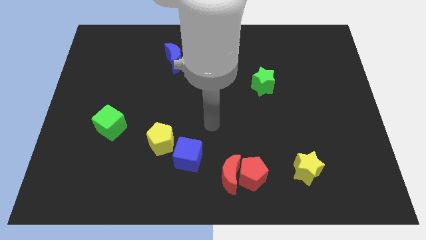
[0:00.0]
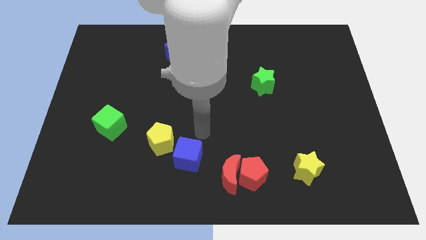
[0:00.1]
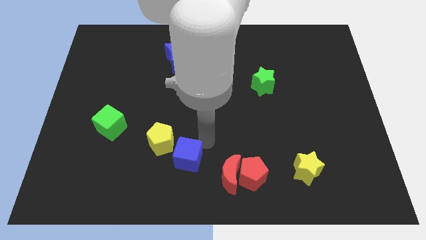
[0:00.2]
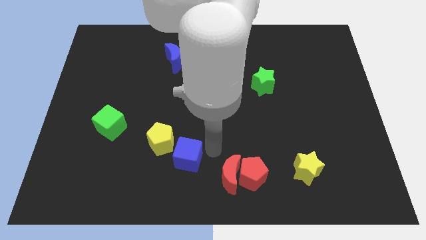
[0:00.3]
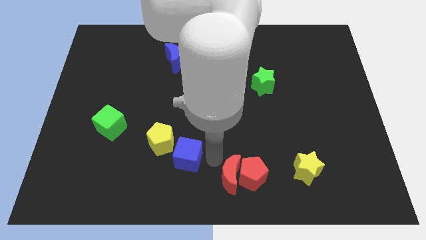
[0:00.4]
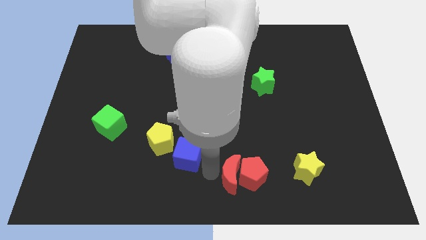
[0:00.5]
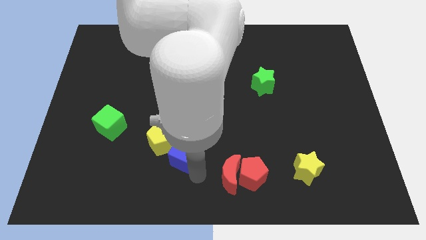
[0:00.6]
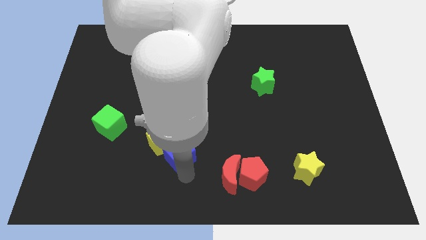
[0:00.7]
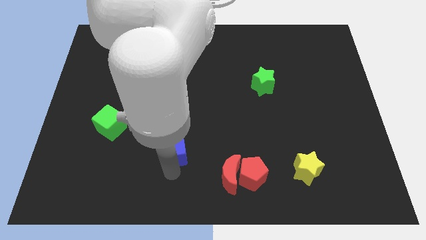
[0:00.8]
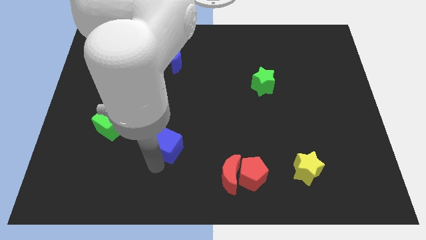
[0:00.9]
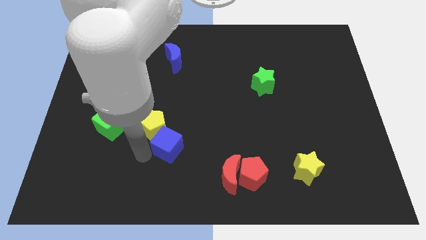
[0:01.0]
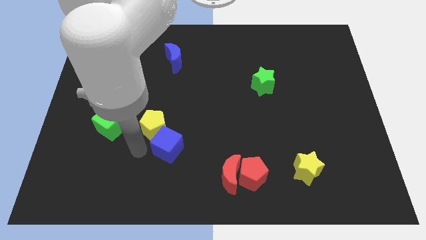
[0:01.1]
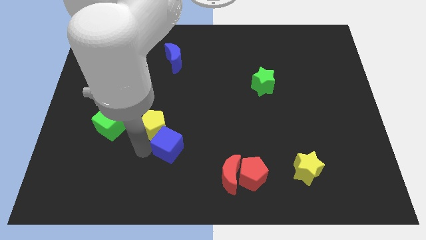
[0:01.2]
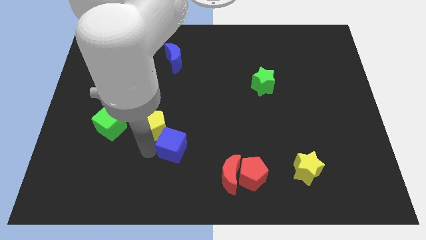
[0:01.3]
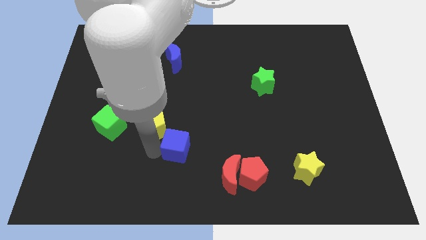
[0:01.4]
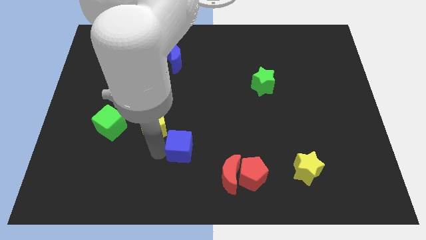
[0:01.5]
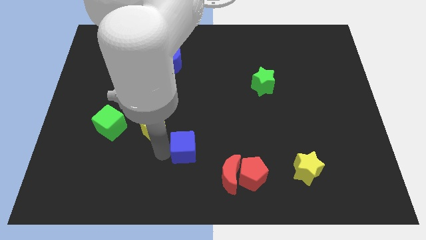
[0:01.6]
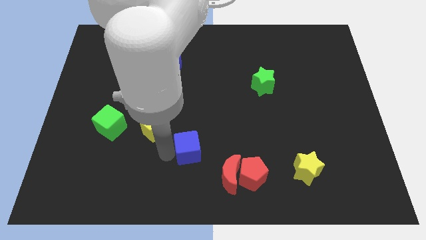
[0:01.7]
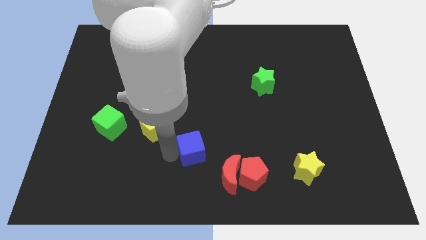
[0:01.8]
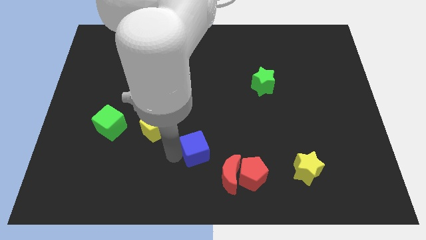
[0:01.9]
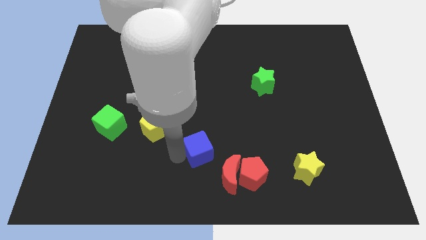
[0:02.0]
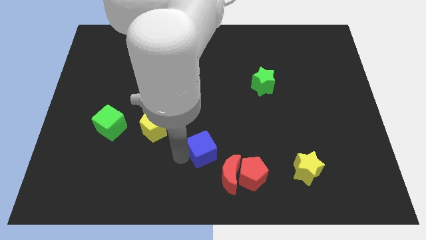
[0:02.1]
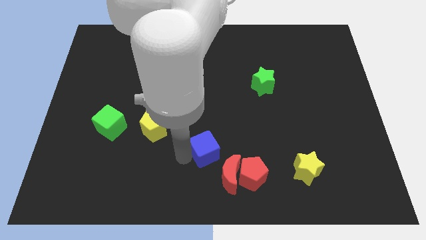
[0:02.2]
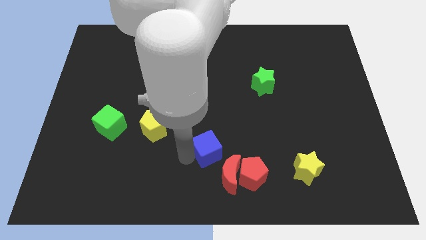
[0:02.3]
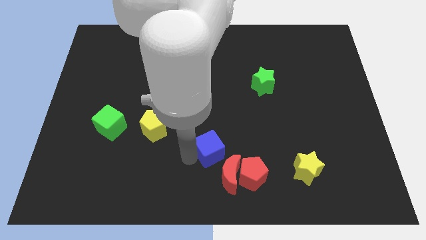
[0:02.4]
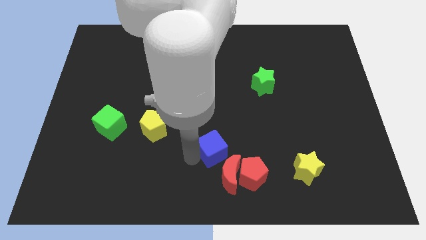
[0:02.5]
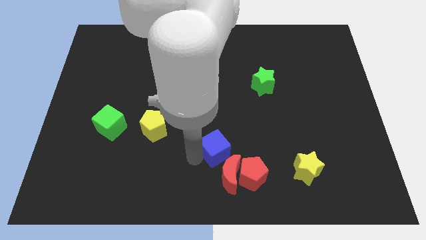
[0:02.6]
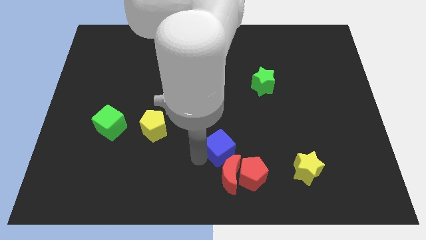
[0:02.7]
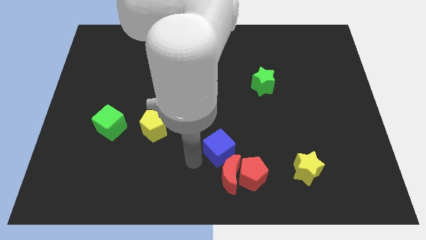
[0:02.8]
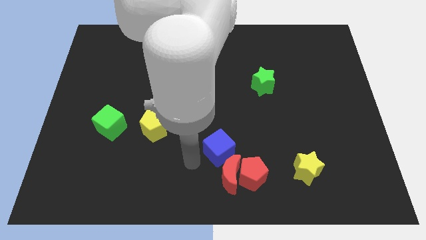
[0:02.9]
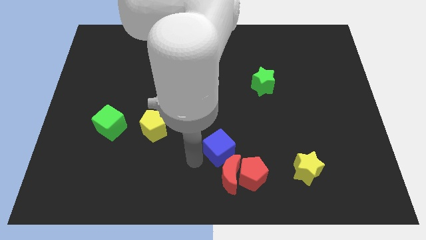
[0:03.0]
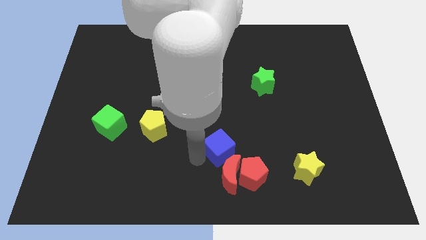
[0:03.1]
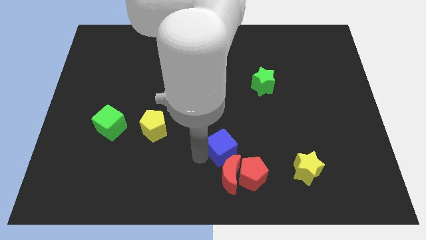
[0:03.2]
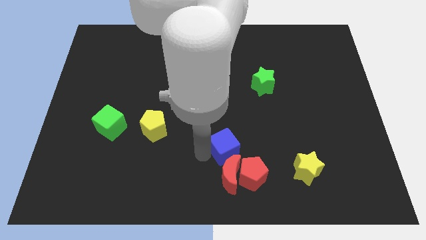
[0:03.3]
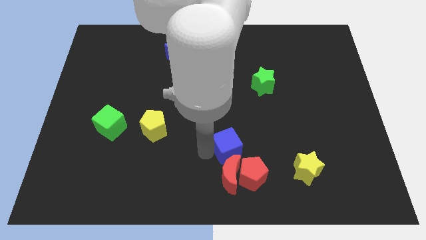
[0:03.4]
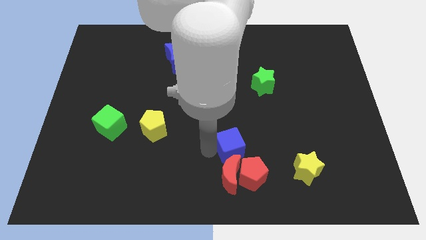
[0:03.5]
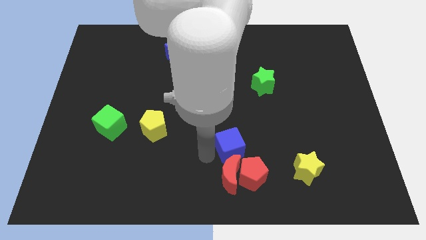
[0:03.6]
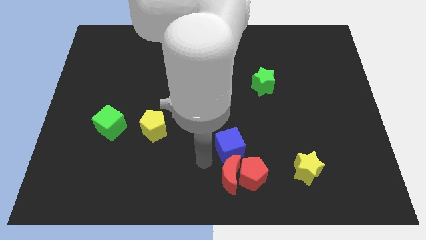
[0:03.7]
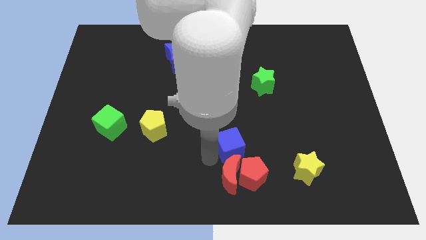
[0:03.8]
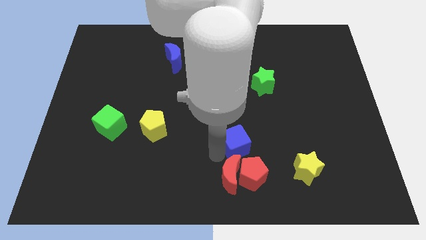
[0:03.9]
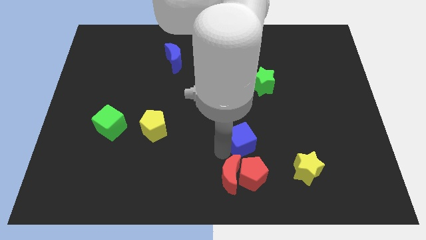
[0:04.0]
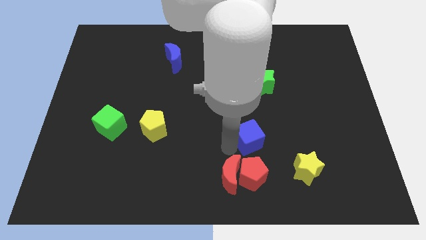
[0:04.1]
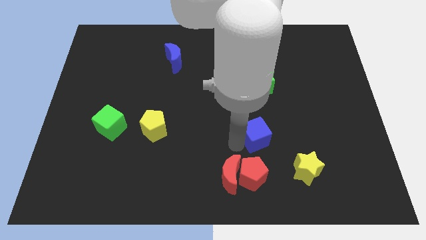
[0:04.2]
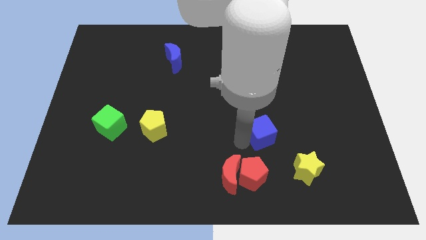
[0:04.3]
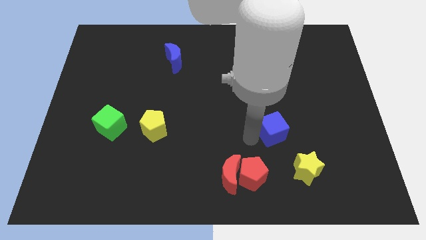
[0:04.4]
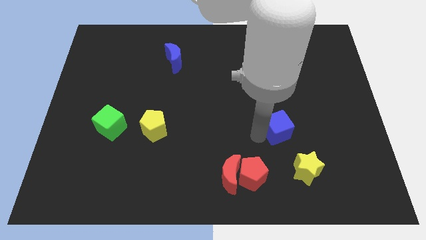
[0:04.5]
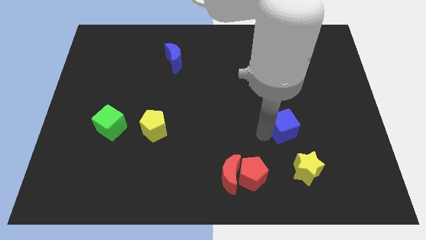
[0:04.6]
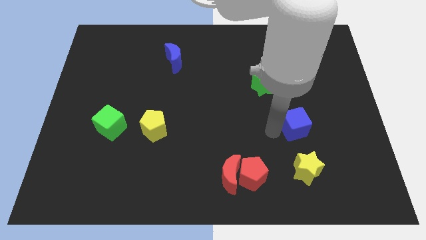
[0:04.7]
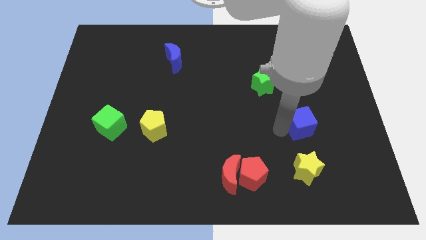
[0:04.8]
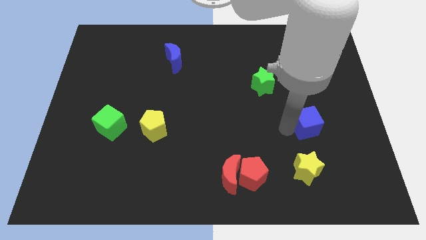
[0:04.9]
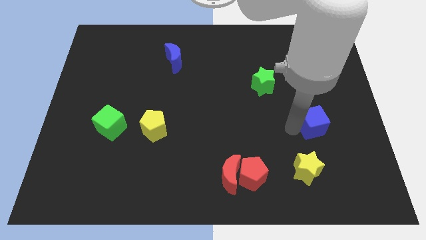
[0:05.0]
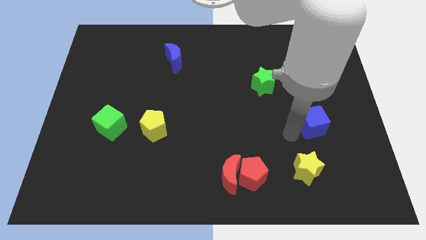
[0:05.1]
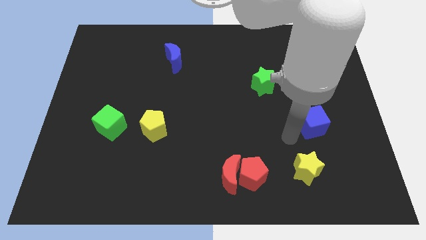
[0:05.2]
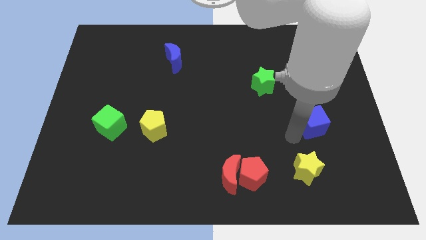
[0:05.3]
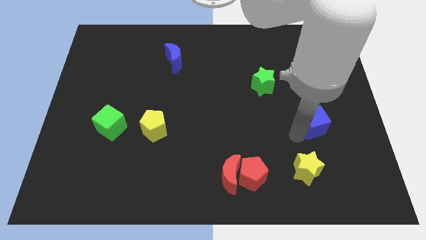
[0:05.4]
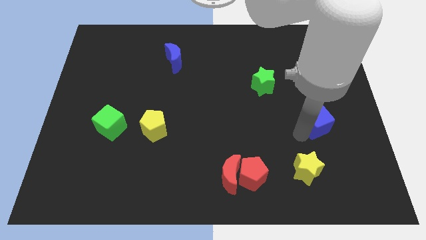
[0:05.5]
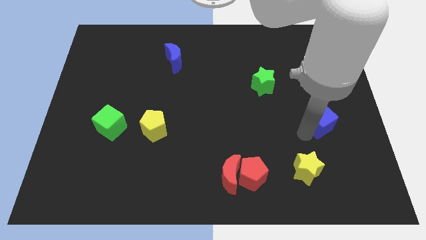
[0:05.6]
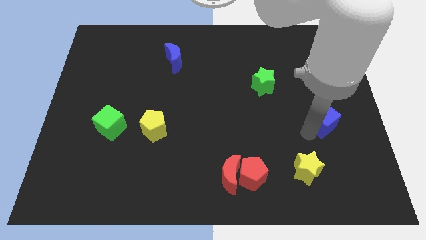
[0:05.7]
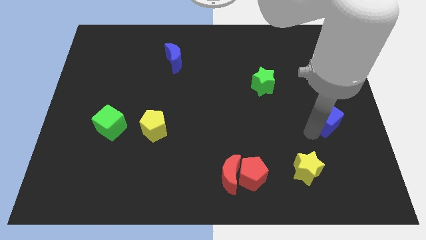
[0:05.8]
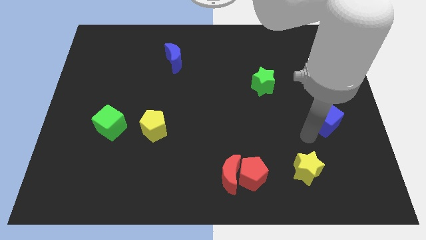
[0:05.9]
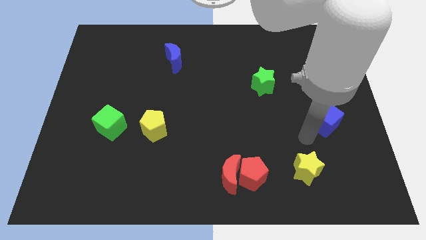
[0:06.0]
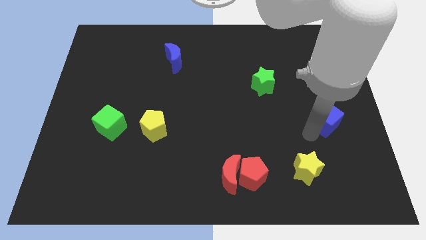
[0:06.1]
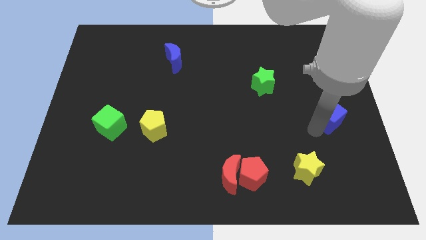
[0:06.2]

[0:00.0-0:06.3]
put the blue cube to the center right
